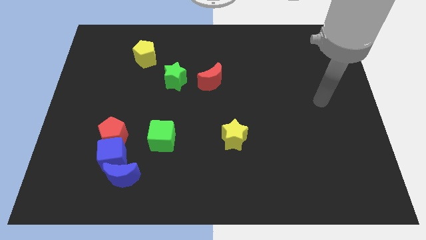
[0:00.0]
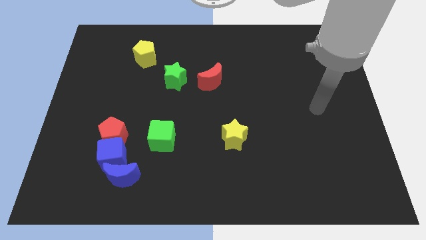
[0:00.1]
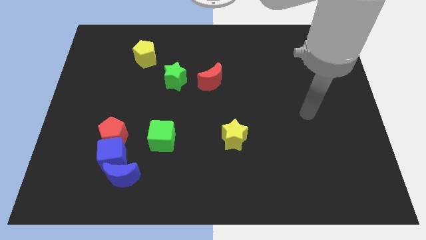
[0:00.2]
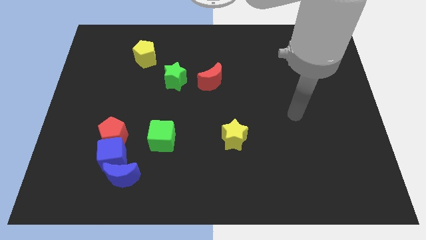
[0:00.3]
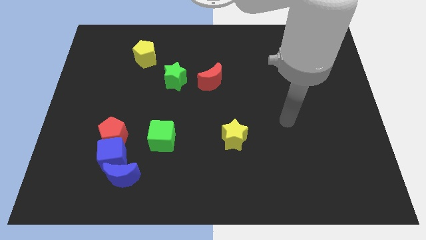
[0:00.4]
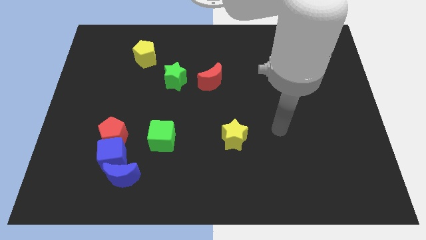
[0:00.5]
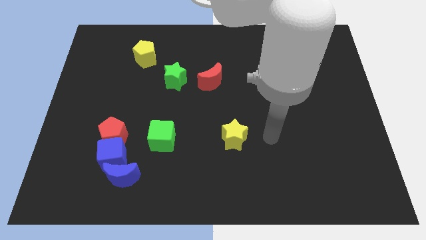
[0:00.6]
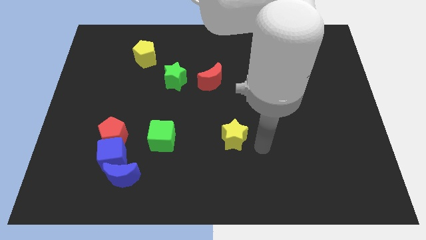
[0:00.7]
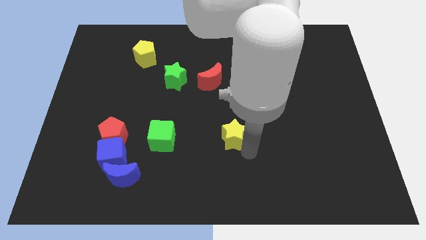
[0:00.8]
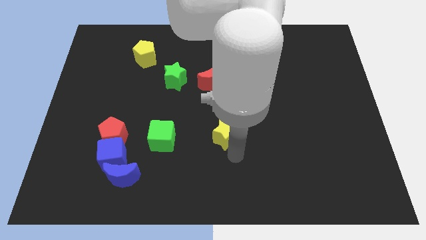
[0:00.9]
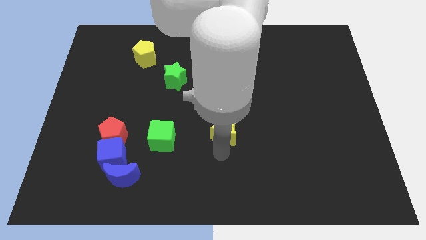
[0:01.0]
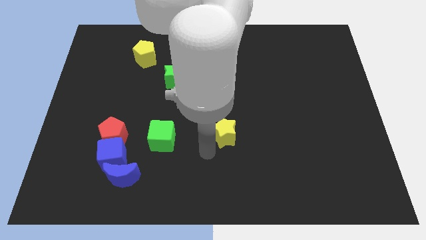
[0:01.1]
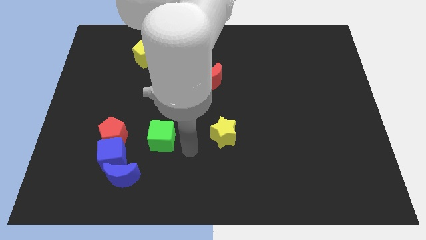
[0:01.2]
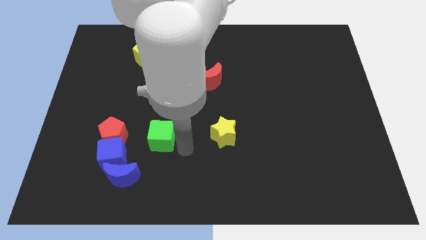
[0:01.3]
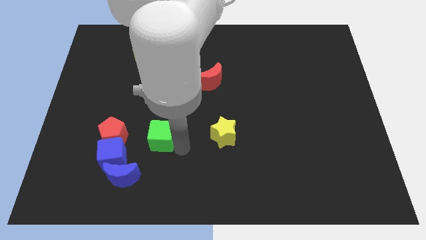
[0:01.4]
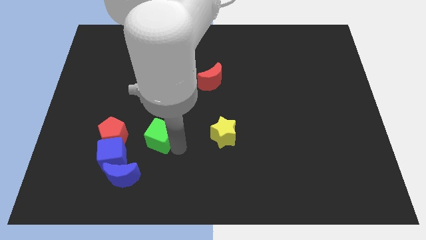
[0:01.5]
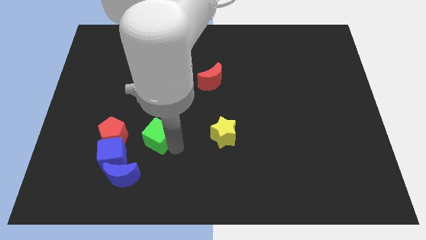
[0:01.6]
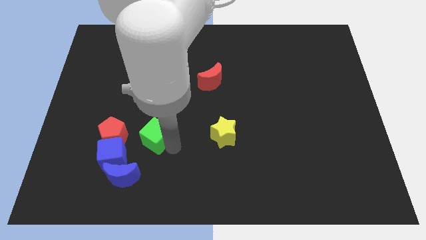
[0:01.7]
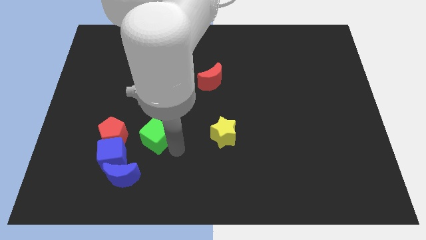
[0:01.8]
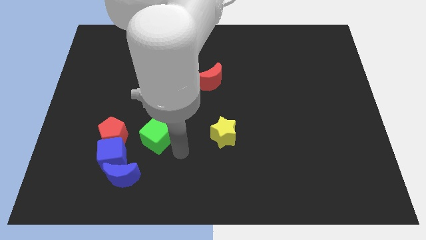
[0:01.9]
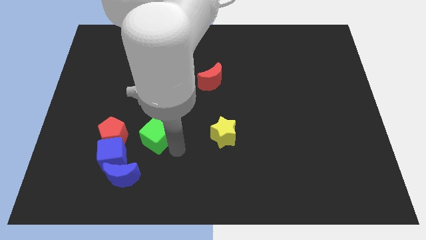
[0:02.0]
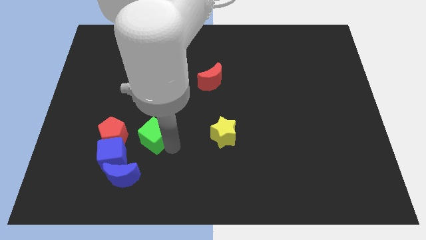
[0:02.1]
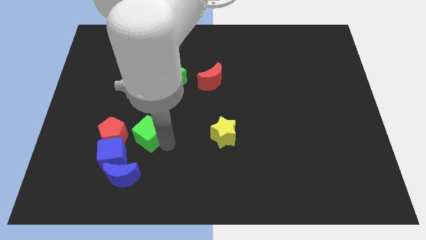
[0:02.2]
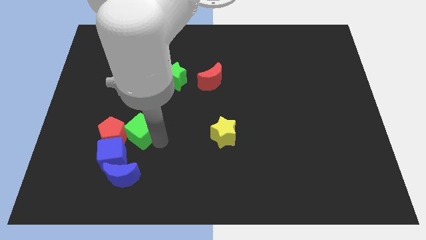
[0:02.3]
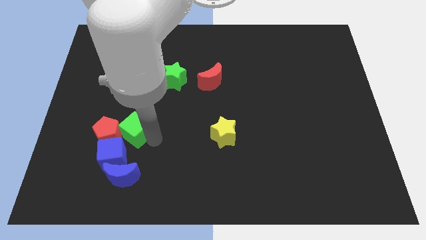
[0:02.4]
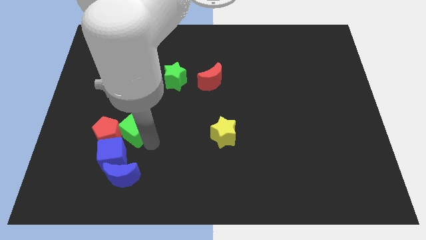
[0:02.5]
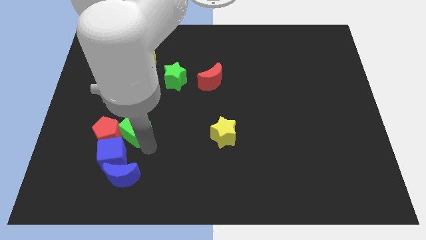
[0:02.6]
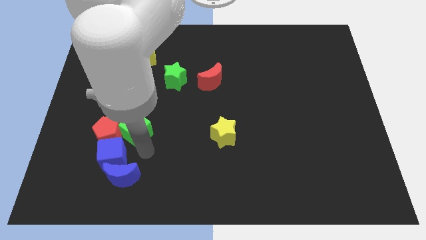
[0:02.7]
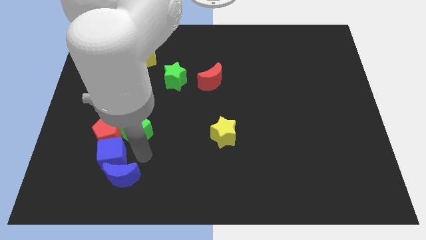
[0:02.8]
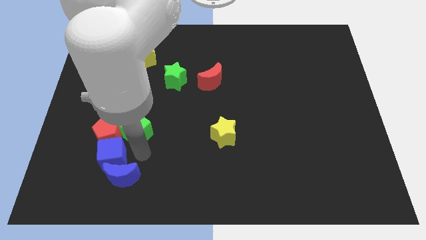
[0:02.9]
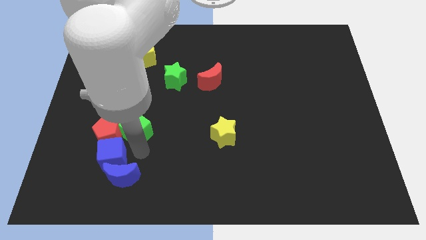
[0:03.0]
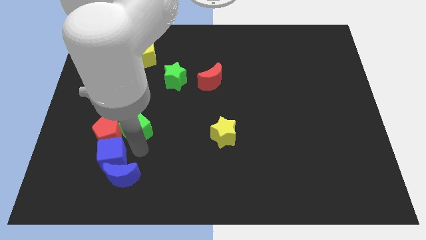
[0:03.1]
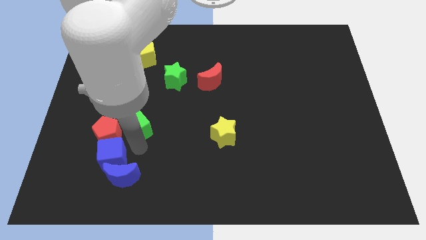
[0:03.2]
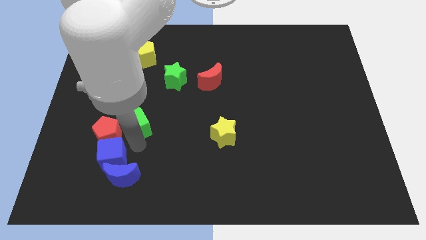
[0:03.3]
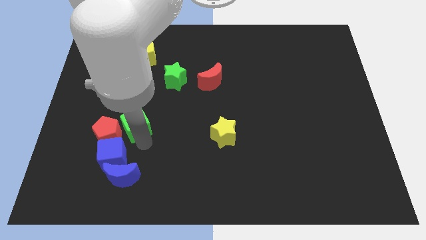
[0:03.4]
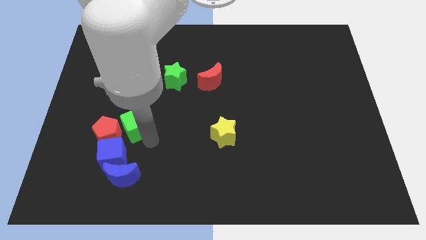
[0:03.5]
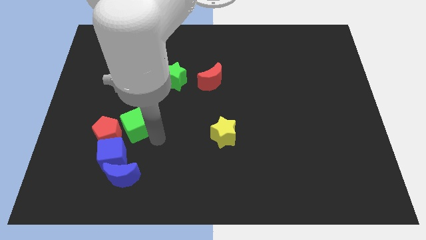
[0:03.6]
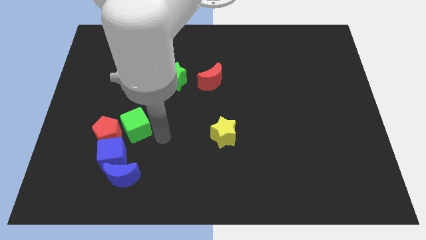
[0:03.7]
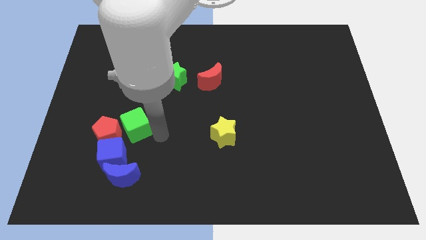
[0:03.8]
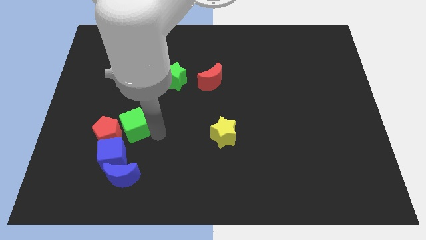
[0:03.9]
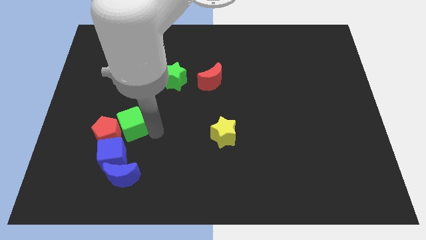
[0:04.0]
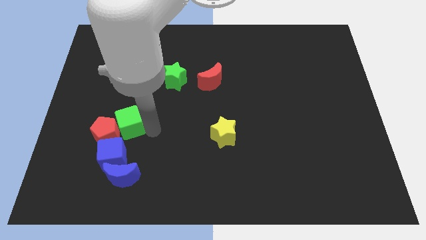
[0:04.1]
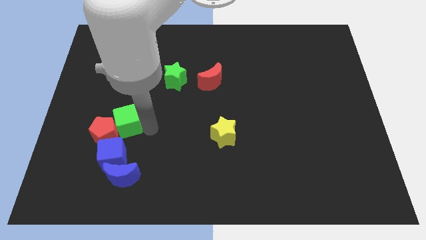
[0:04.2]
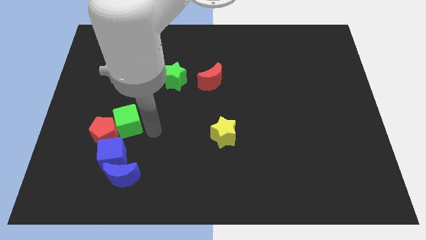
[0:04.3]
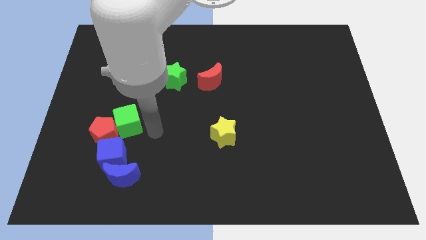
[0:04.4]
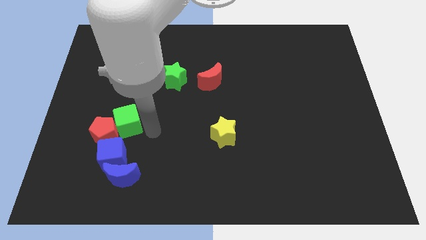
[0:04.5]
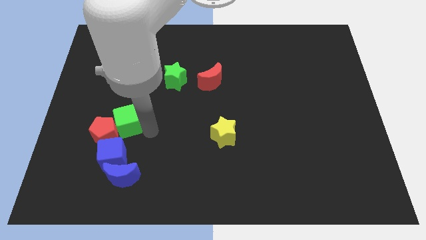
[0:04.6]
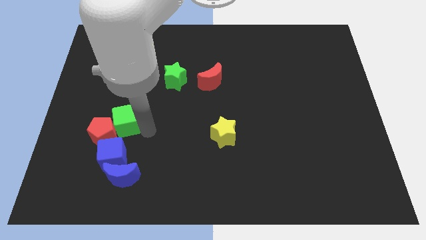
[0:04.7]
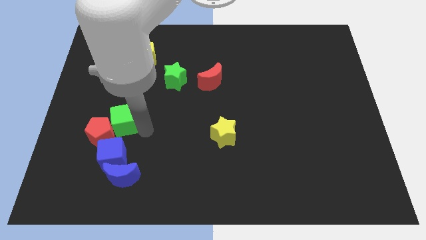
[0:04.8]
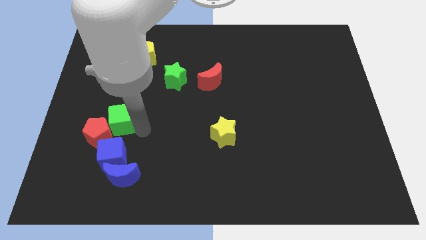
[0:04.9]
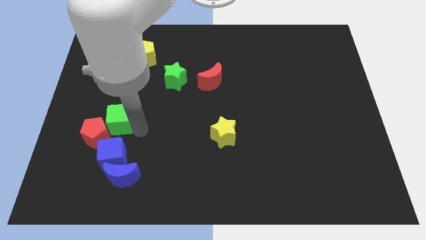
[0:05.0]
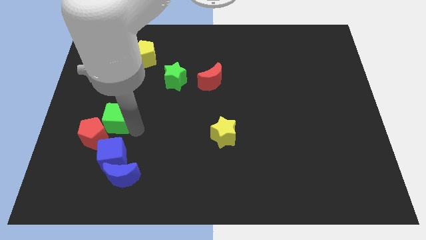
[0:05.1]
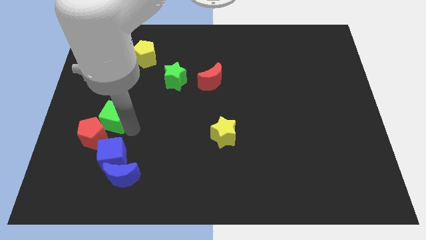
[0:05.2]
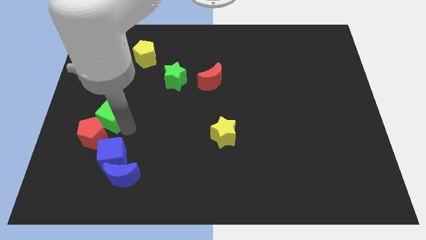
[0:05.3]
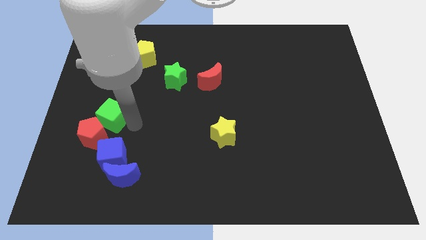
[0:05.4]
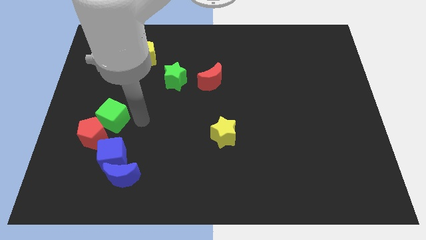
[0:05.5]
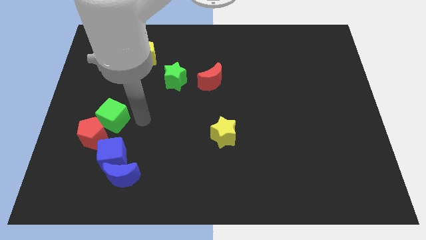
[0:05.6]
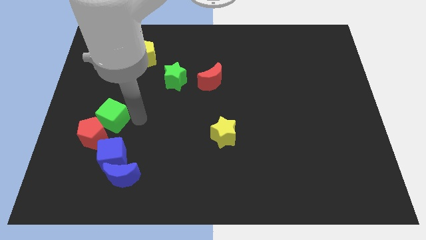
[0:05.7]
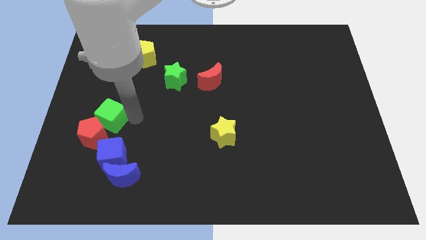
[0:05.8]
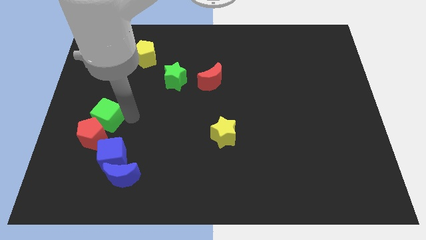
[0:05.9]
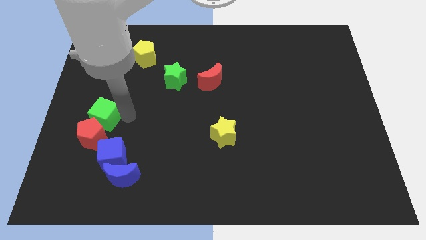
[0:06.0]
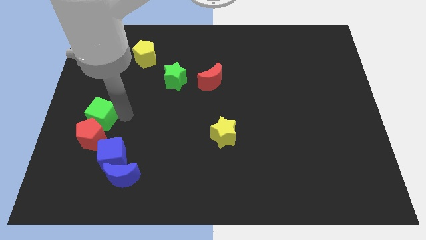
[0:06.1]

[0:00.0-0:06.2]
slide the green cube diagonally up and to the left of the red pentagon

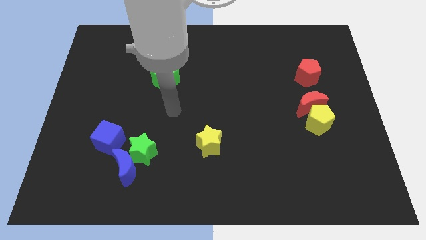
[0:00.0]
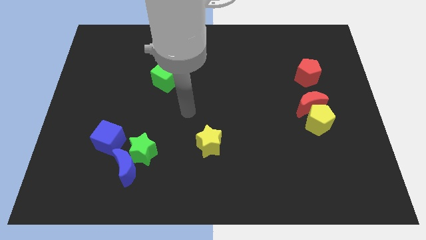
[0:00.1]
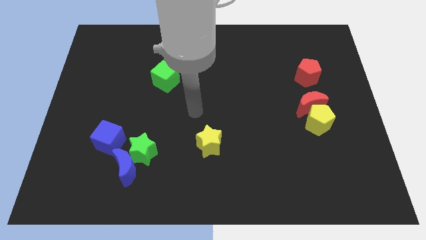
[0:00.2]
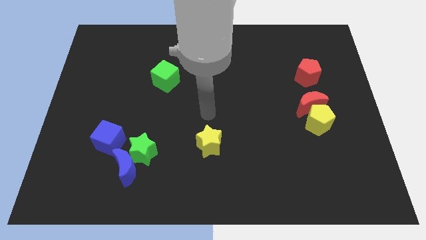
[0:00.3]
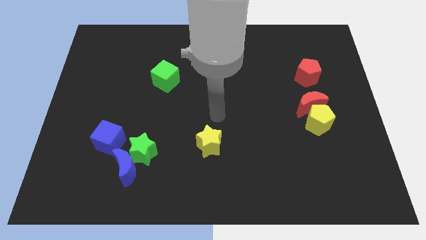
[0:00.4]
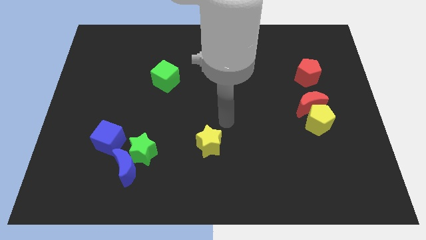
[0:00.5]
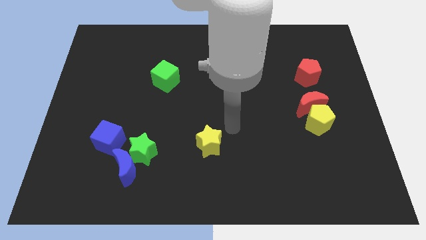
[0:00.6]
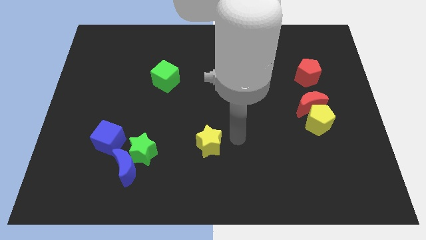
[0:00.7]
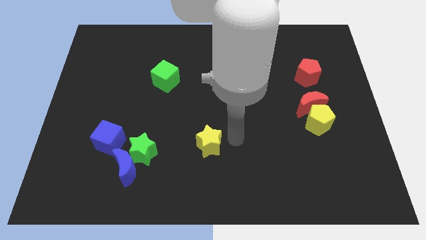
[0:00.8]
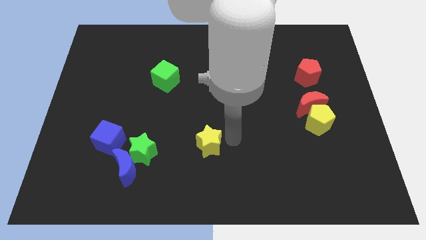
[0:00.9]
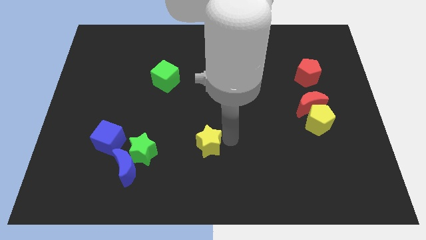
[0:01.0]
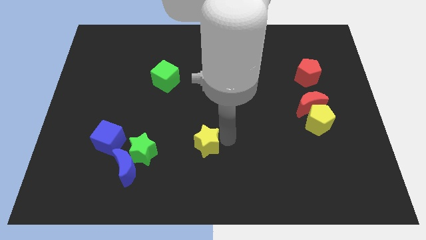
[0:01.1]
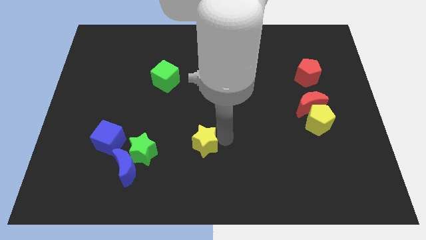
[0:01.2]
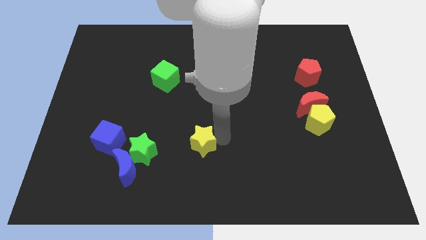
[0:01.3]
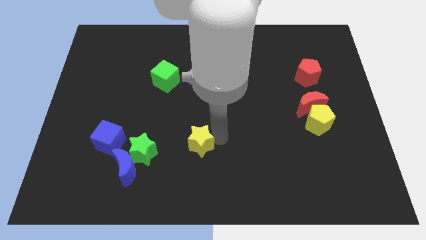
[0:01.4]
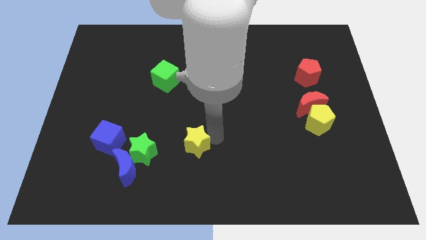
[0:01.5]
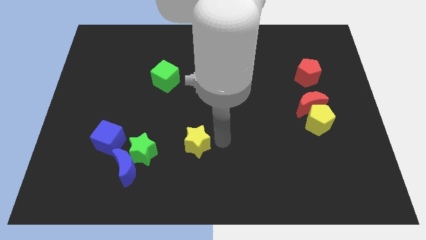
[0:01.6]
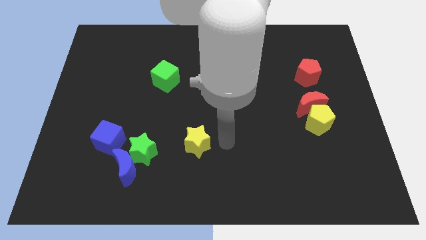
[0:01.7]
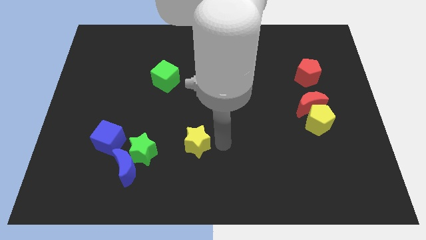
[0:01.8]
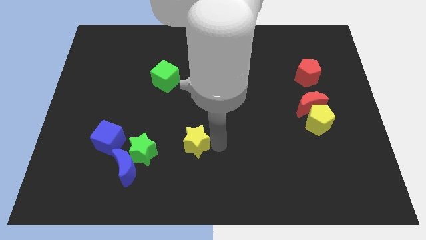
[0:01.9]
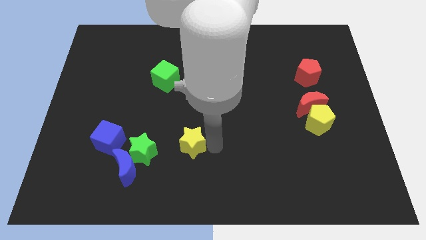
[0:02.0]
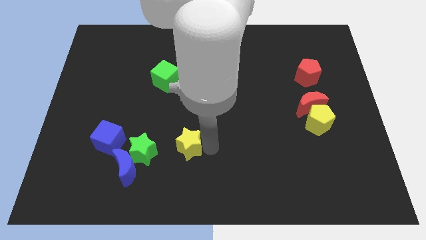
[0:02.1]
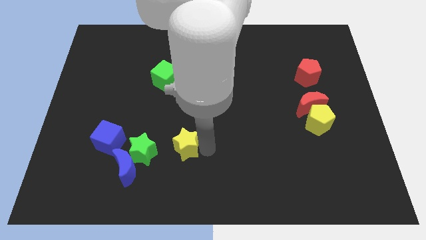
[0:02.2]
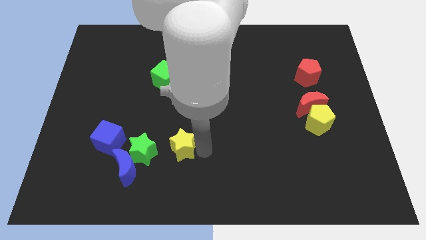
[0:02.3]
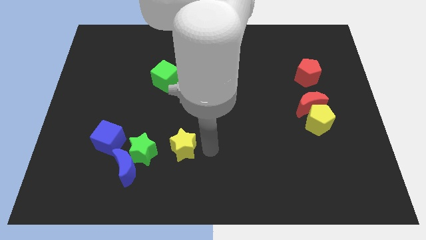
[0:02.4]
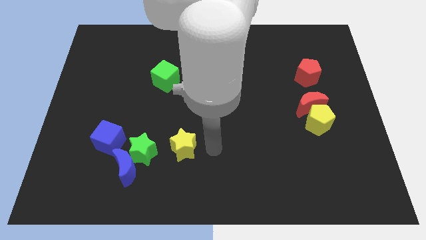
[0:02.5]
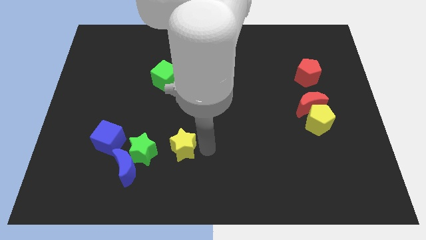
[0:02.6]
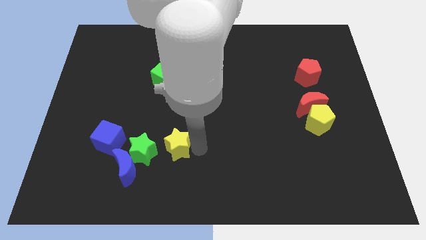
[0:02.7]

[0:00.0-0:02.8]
push the yellow star diagonally up and to the right of the blue moon

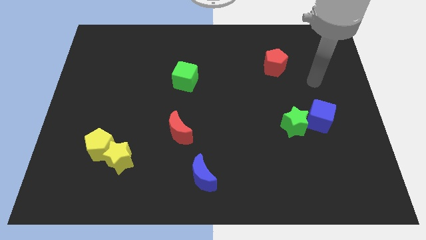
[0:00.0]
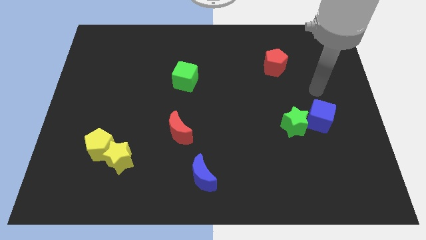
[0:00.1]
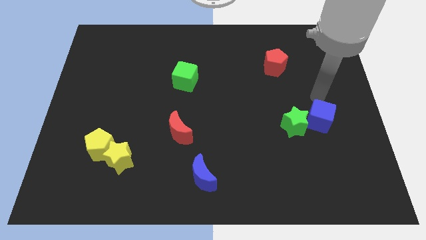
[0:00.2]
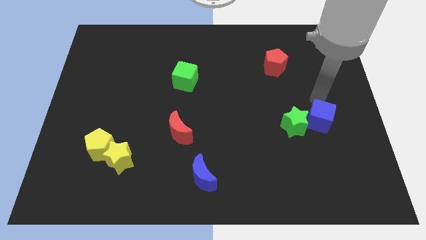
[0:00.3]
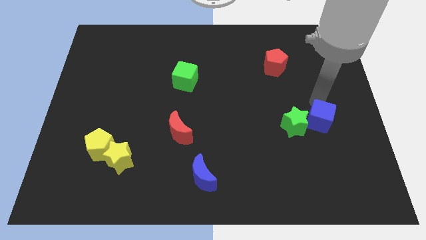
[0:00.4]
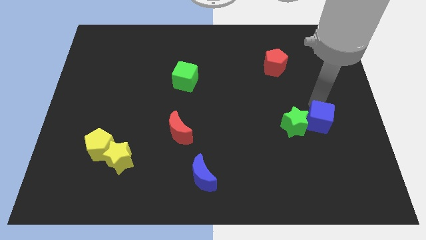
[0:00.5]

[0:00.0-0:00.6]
push the blue cube to the bottom right side of the green star
